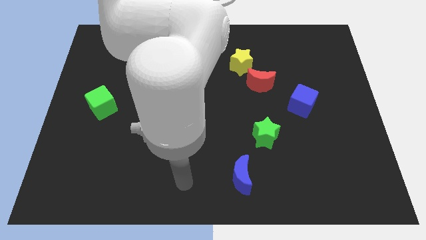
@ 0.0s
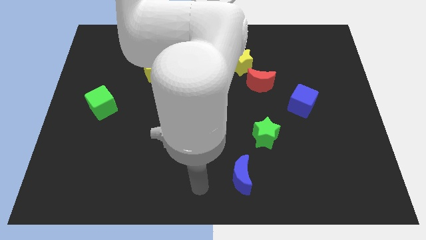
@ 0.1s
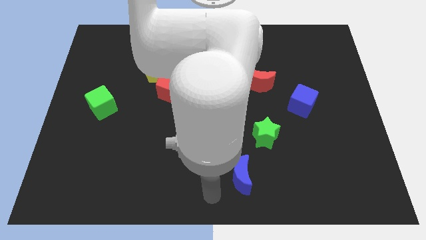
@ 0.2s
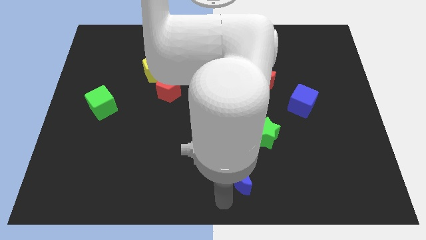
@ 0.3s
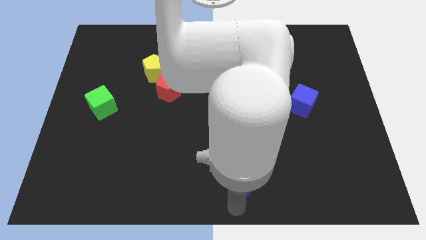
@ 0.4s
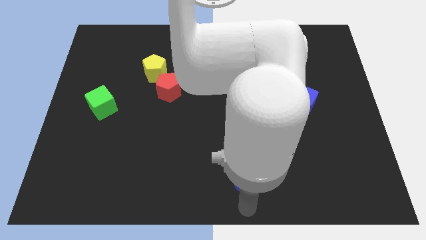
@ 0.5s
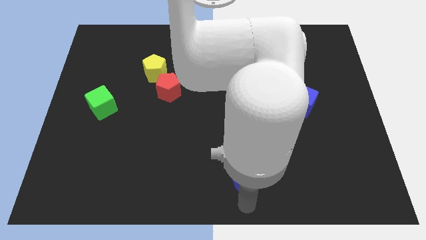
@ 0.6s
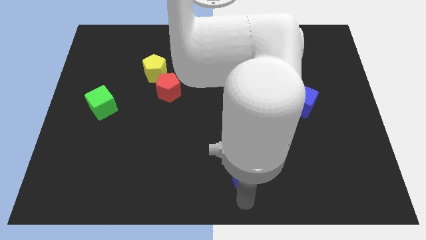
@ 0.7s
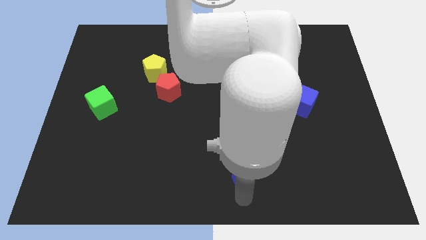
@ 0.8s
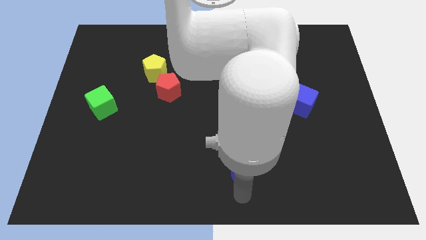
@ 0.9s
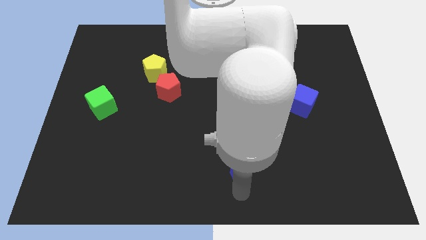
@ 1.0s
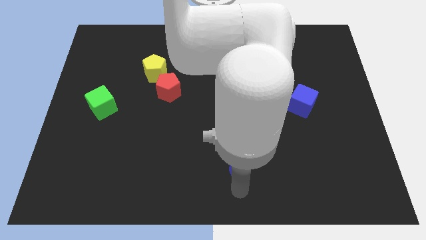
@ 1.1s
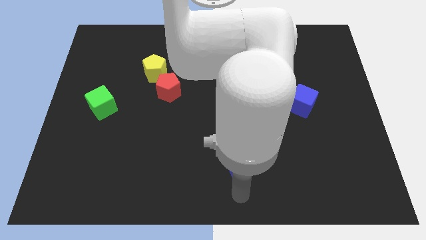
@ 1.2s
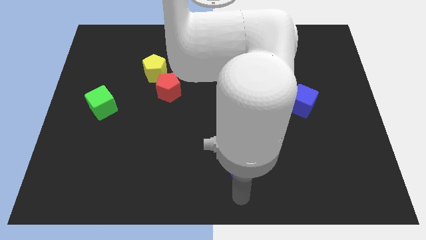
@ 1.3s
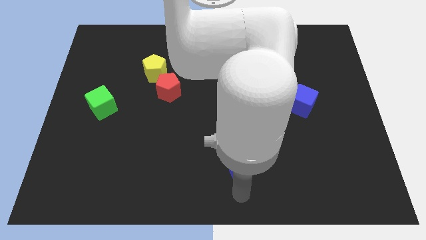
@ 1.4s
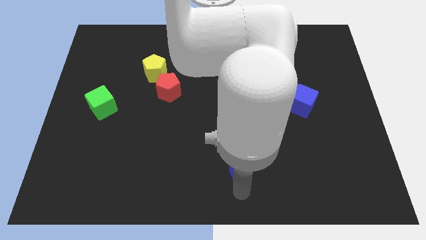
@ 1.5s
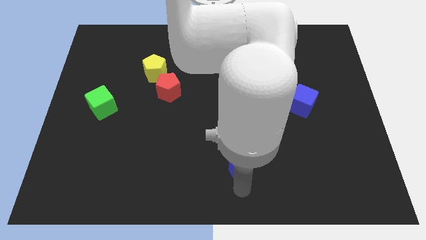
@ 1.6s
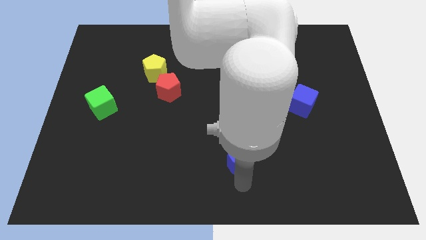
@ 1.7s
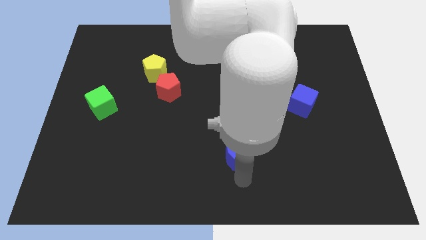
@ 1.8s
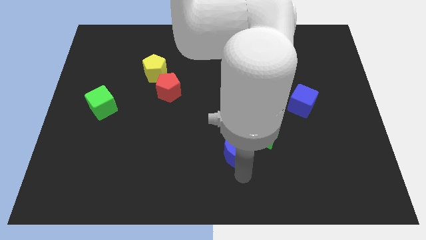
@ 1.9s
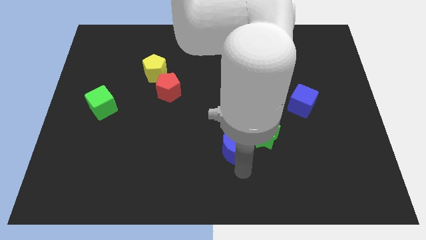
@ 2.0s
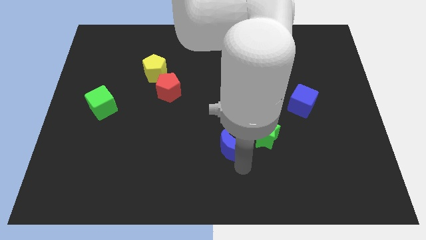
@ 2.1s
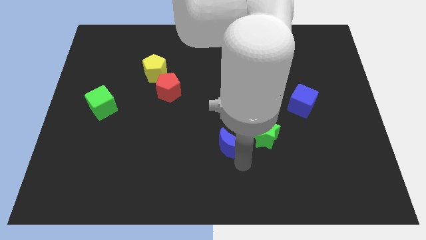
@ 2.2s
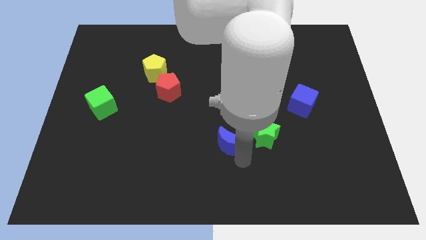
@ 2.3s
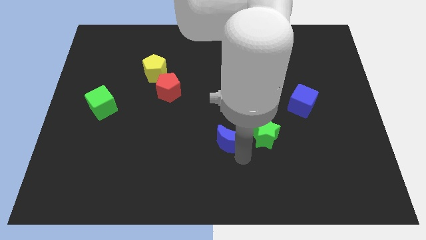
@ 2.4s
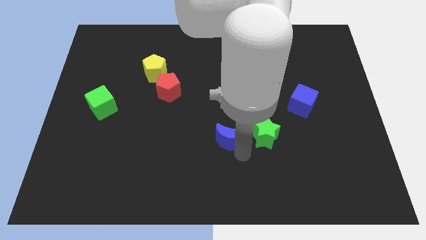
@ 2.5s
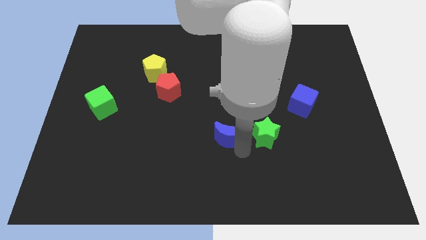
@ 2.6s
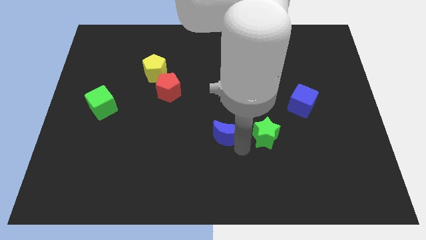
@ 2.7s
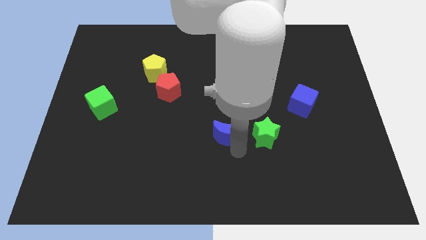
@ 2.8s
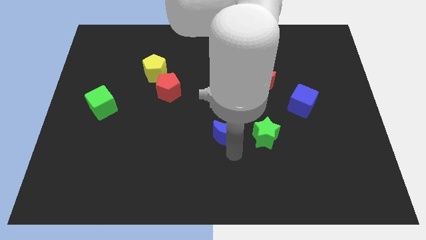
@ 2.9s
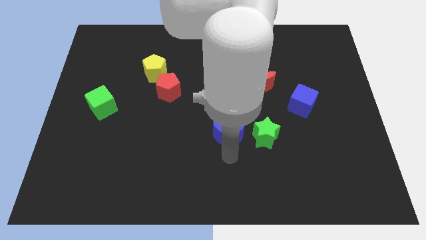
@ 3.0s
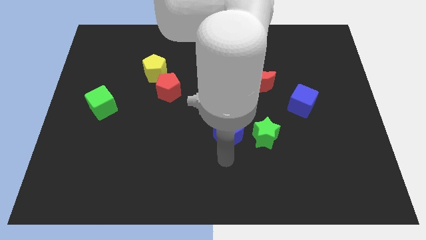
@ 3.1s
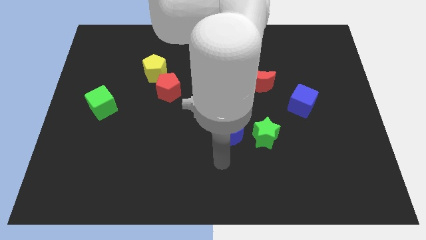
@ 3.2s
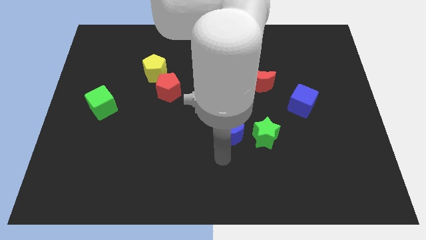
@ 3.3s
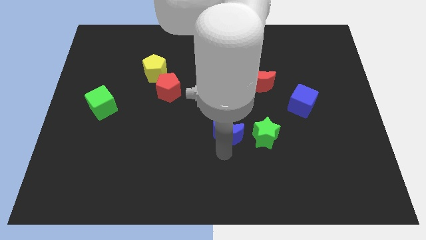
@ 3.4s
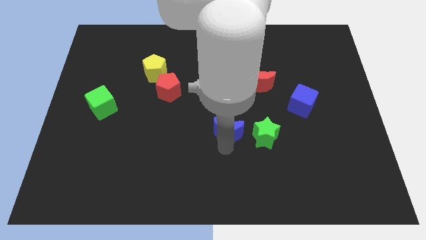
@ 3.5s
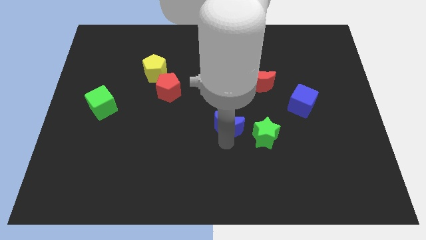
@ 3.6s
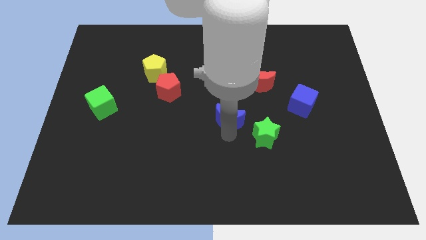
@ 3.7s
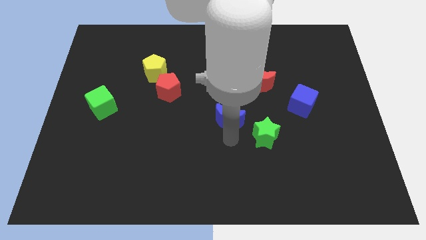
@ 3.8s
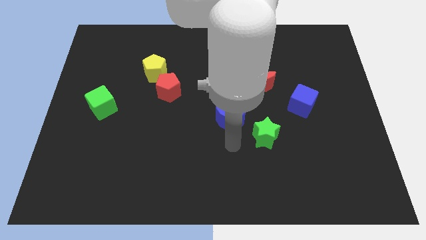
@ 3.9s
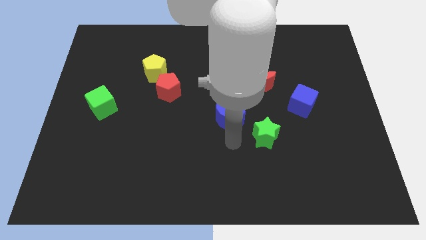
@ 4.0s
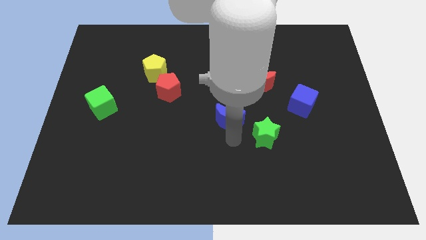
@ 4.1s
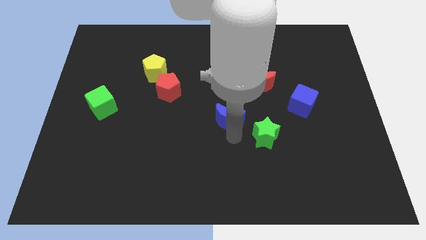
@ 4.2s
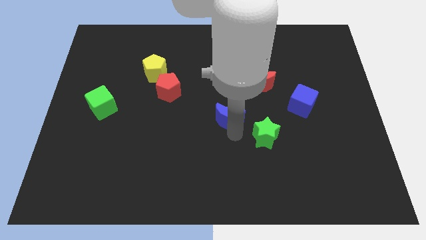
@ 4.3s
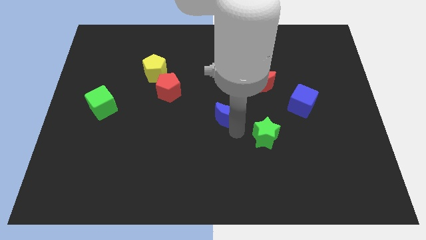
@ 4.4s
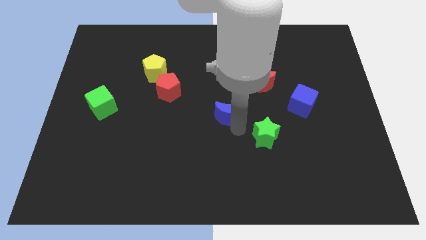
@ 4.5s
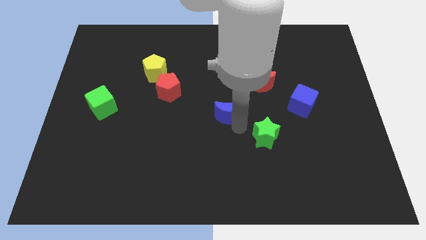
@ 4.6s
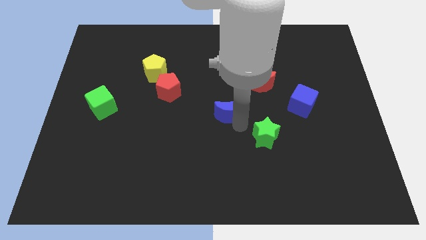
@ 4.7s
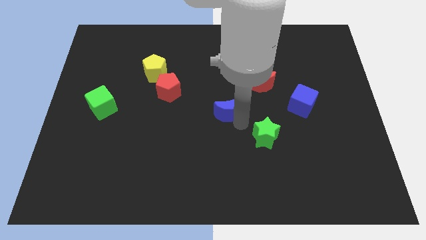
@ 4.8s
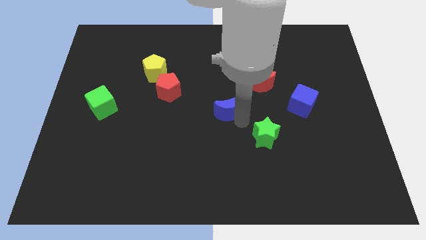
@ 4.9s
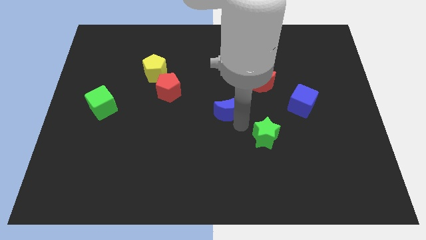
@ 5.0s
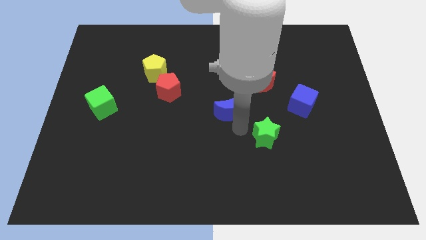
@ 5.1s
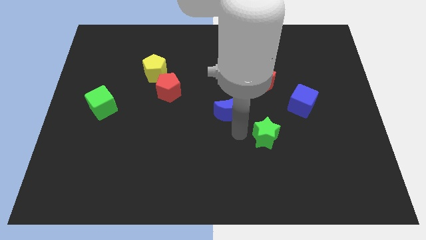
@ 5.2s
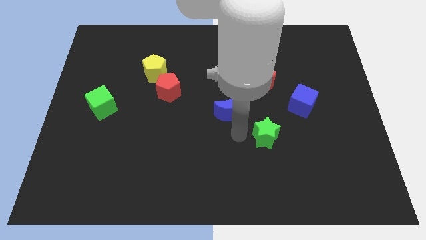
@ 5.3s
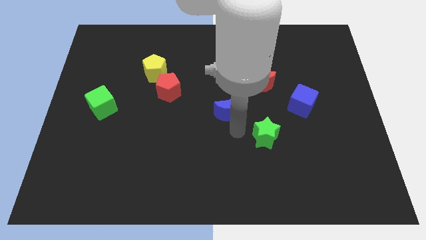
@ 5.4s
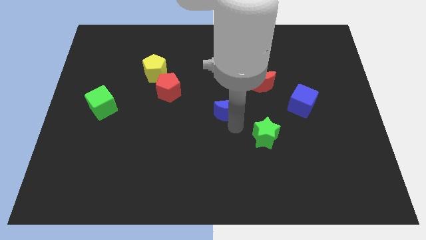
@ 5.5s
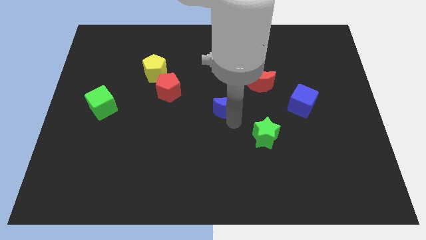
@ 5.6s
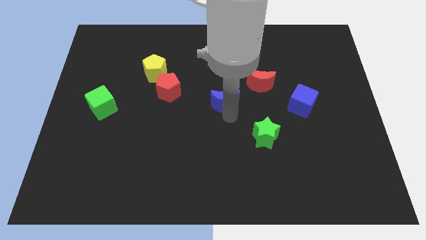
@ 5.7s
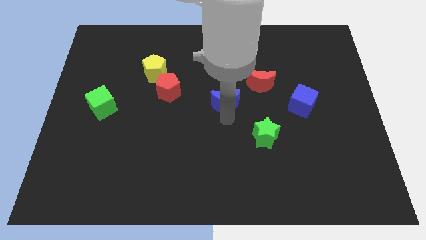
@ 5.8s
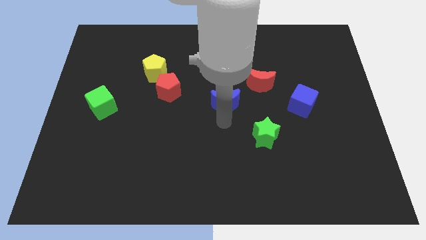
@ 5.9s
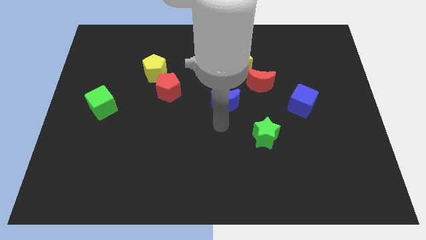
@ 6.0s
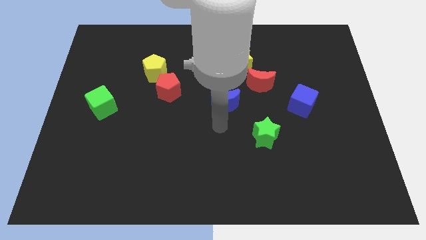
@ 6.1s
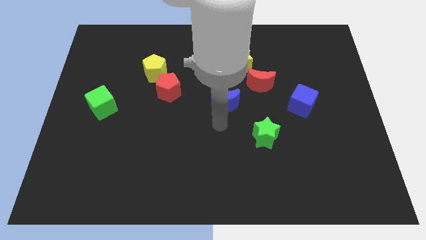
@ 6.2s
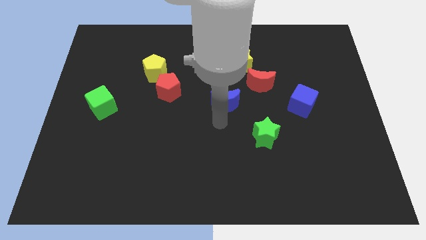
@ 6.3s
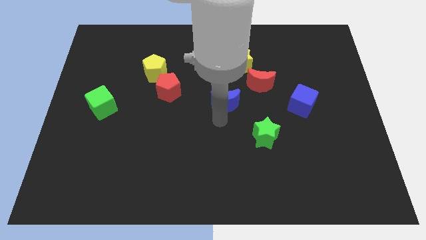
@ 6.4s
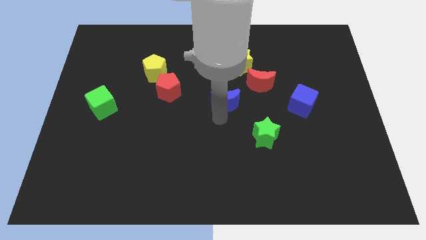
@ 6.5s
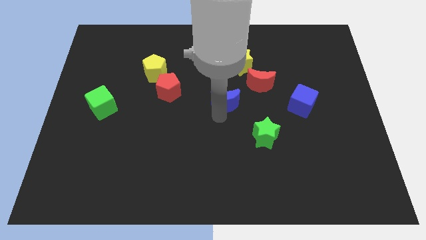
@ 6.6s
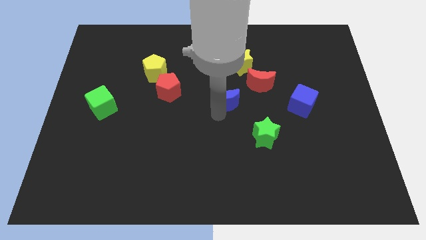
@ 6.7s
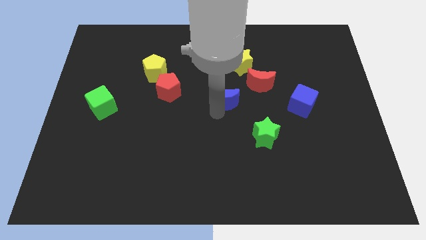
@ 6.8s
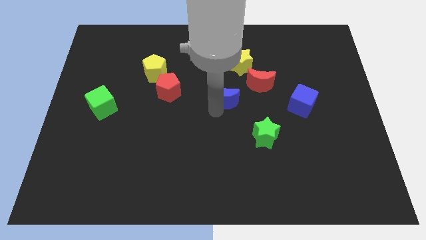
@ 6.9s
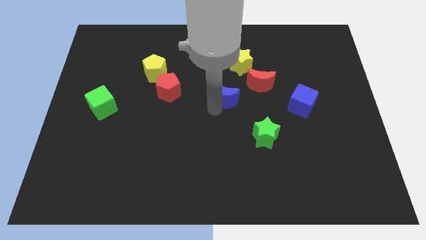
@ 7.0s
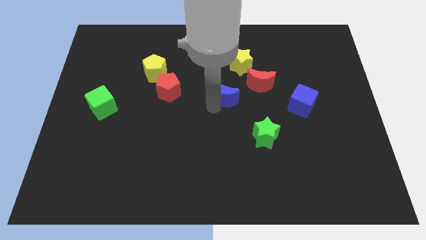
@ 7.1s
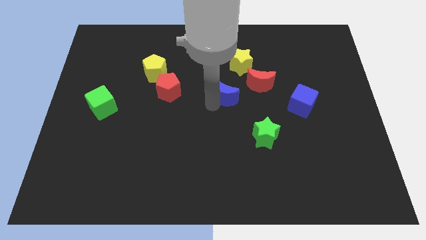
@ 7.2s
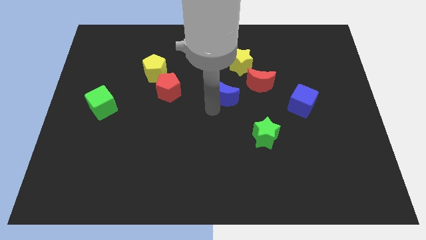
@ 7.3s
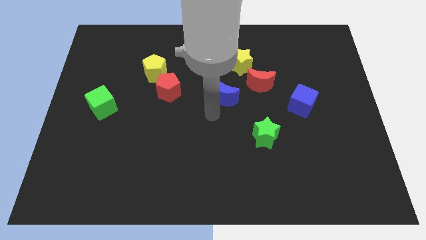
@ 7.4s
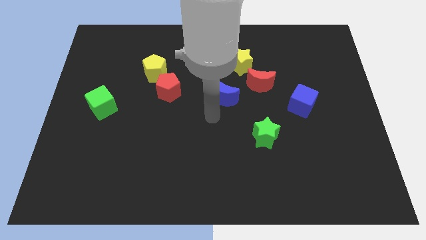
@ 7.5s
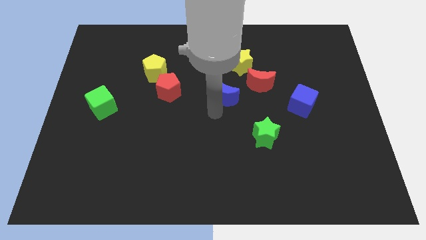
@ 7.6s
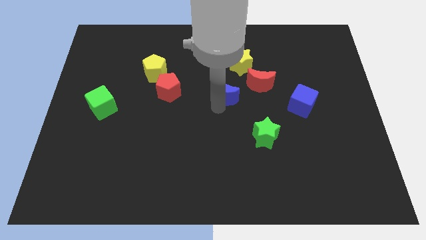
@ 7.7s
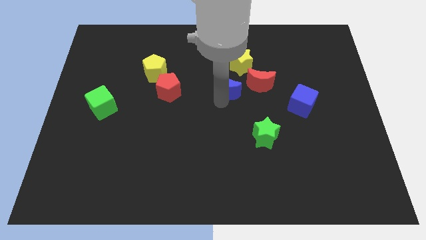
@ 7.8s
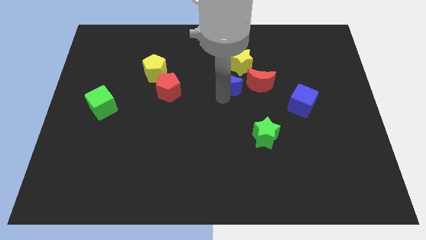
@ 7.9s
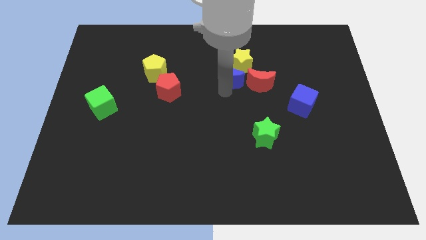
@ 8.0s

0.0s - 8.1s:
slide the blue moon towards the yellow star
